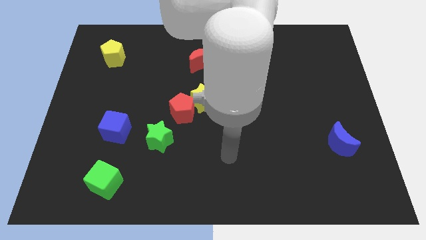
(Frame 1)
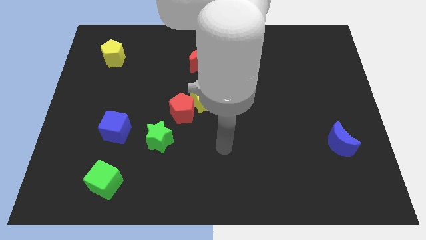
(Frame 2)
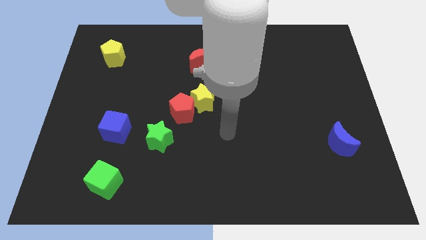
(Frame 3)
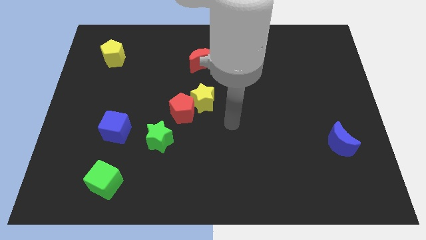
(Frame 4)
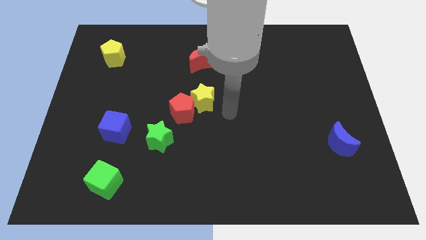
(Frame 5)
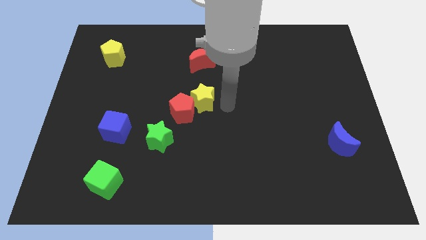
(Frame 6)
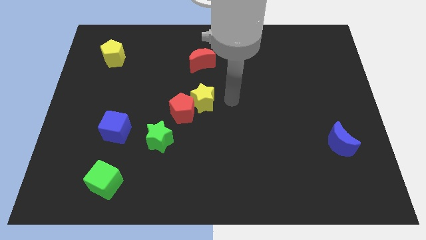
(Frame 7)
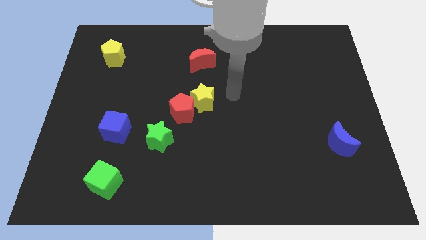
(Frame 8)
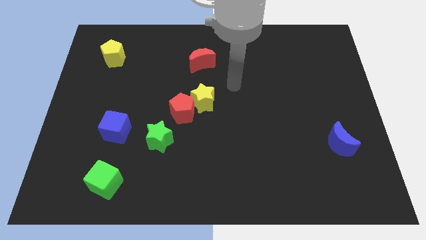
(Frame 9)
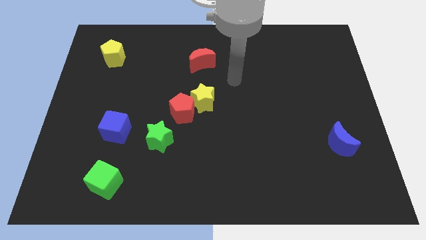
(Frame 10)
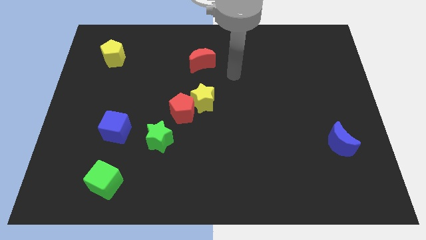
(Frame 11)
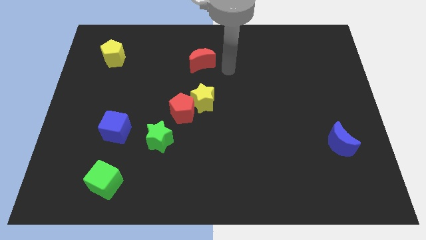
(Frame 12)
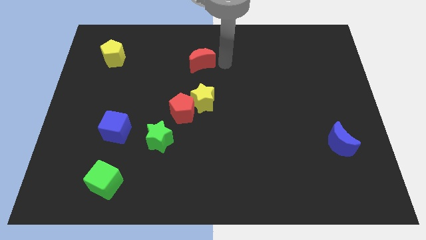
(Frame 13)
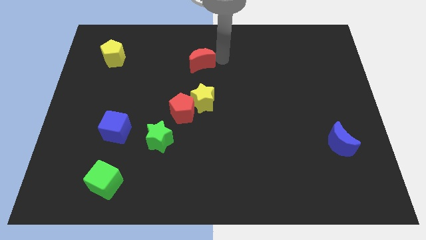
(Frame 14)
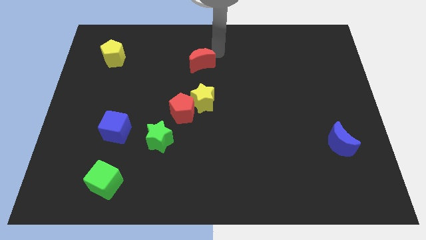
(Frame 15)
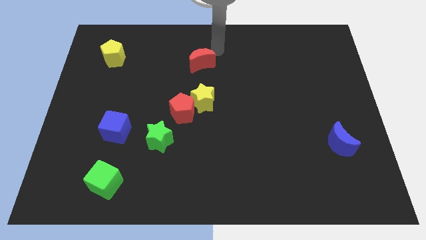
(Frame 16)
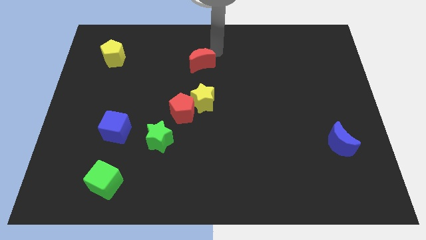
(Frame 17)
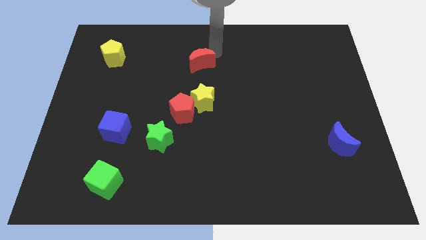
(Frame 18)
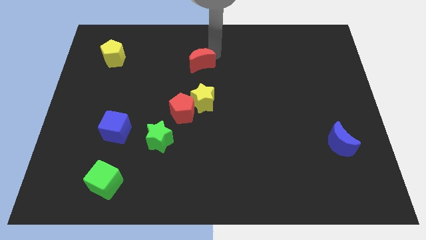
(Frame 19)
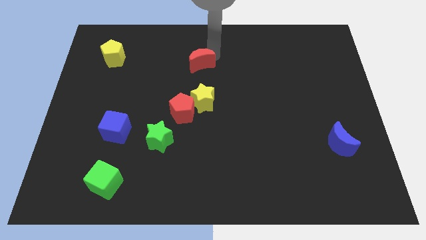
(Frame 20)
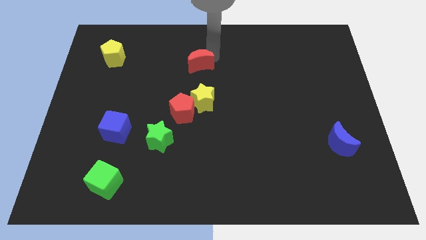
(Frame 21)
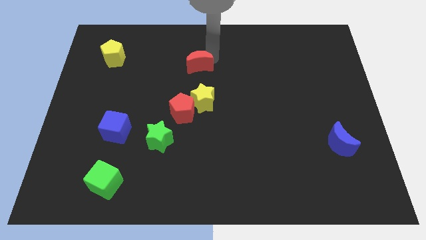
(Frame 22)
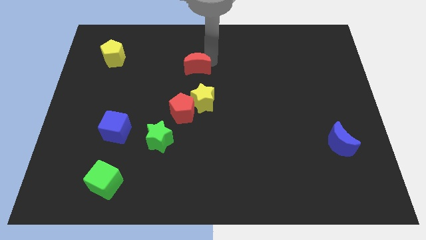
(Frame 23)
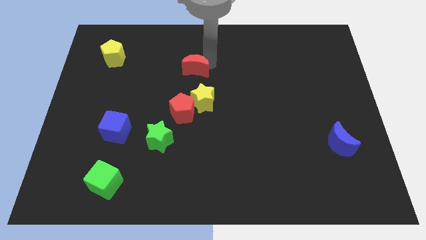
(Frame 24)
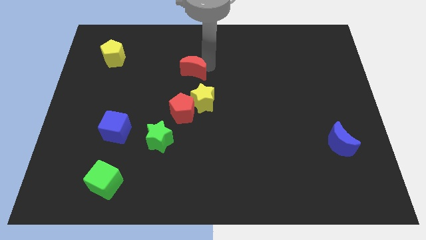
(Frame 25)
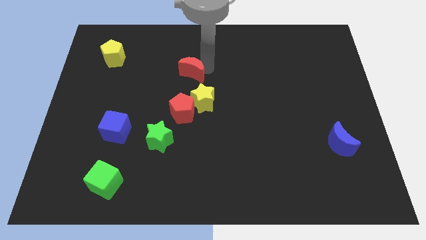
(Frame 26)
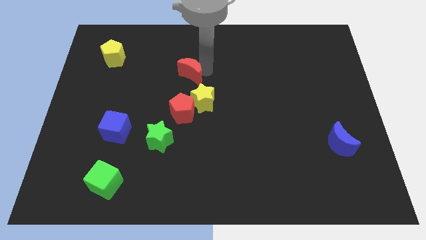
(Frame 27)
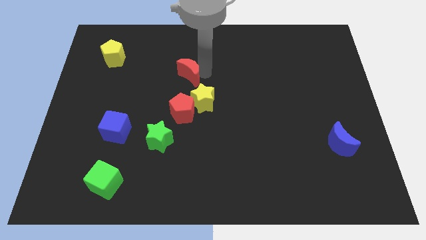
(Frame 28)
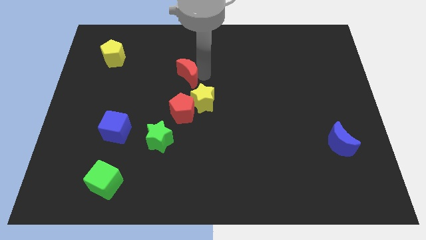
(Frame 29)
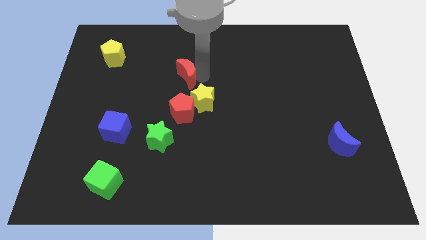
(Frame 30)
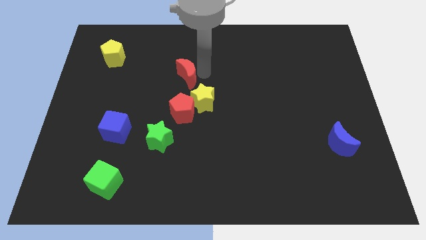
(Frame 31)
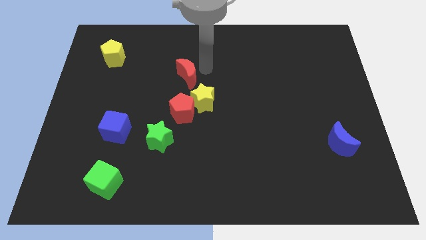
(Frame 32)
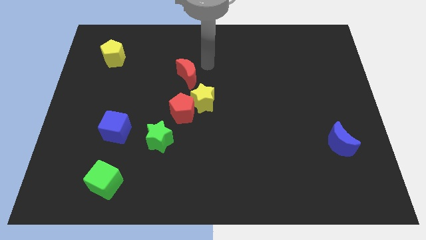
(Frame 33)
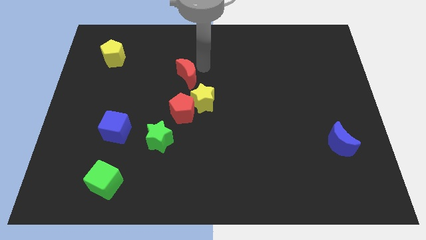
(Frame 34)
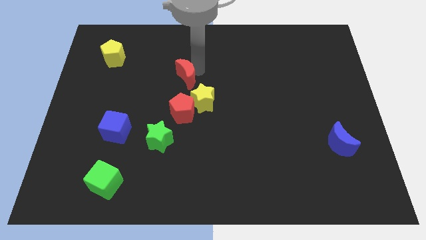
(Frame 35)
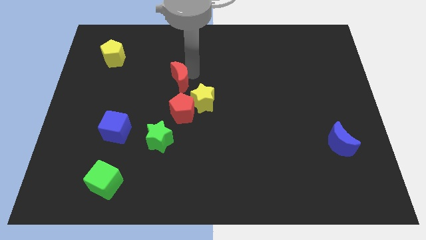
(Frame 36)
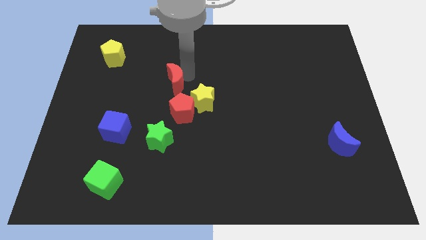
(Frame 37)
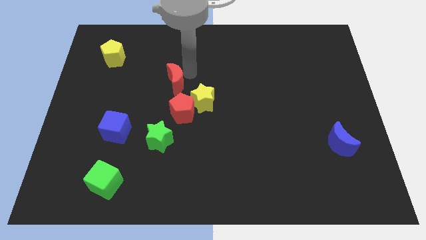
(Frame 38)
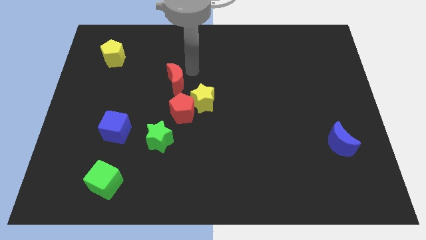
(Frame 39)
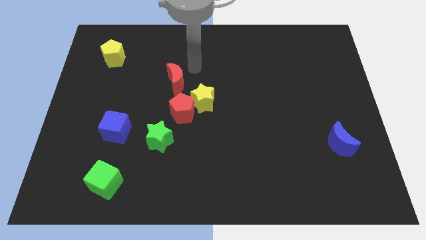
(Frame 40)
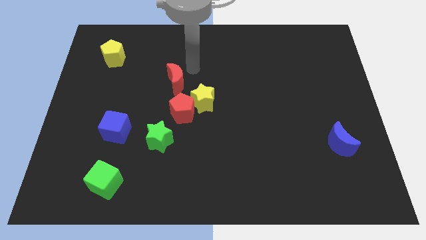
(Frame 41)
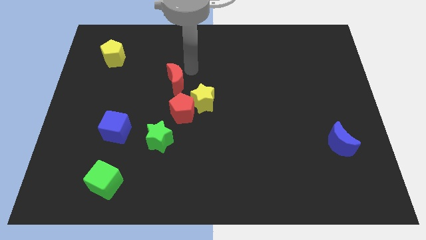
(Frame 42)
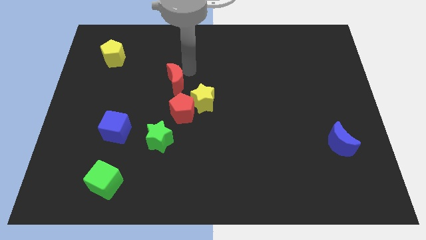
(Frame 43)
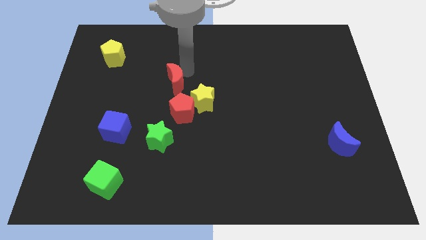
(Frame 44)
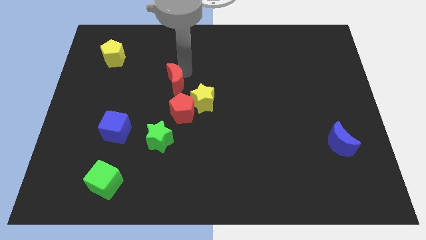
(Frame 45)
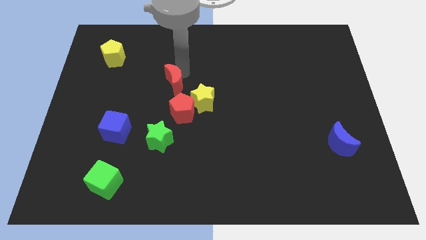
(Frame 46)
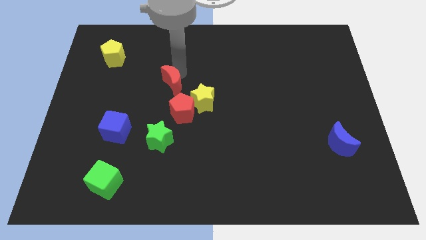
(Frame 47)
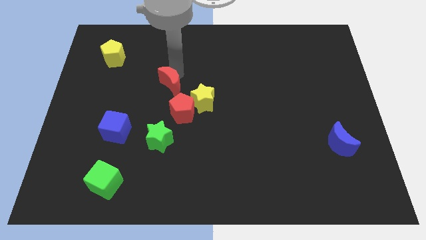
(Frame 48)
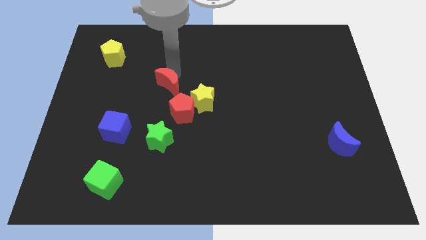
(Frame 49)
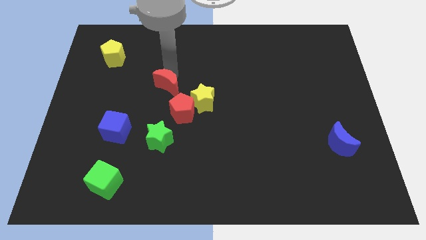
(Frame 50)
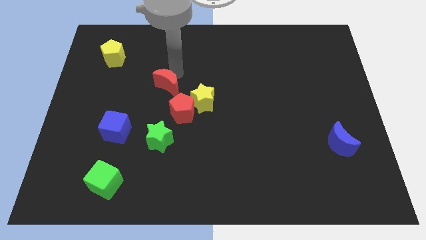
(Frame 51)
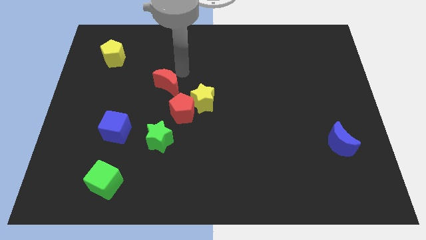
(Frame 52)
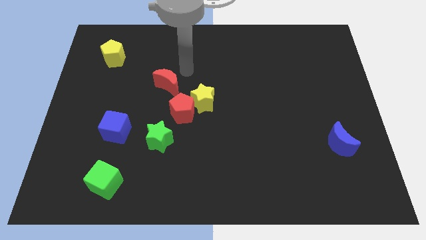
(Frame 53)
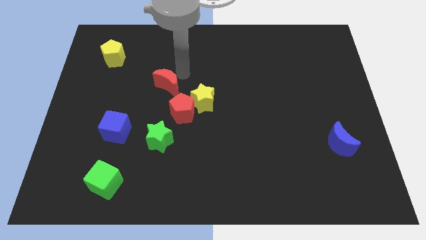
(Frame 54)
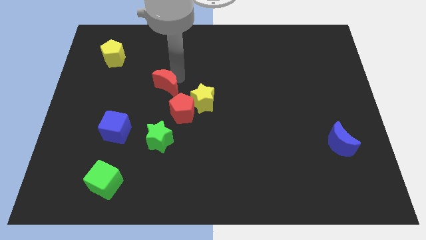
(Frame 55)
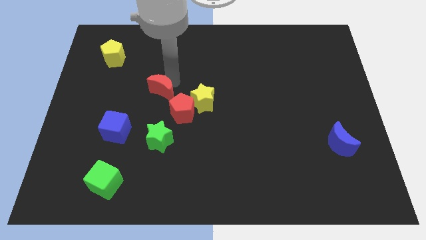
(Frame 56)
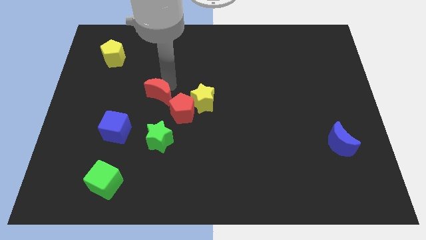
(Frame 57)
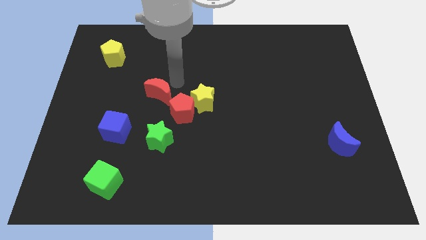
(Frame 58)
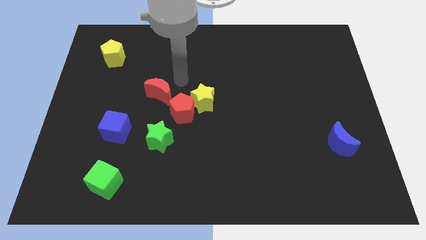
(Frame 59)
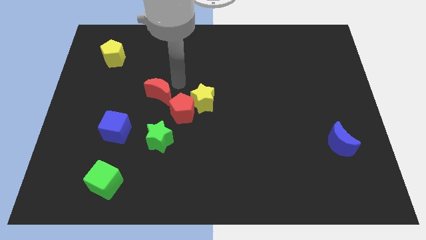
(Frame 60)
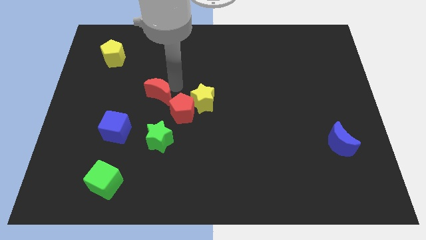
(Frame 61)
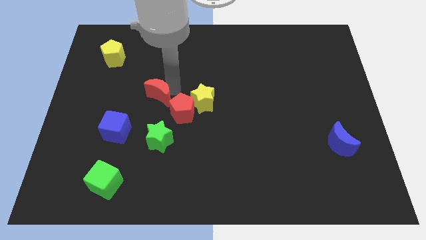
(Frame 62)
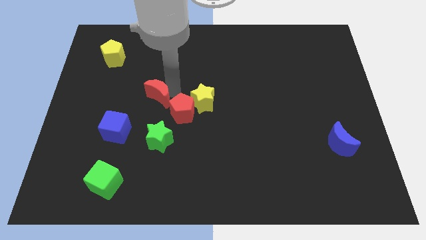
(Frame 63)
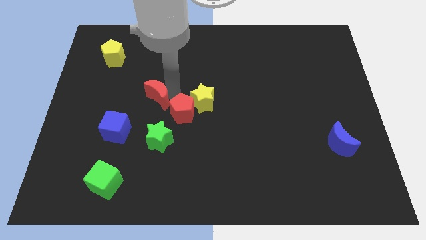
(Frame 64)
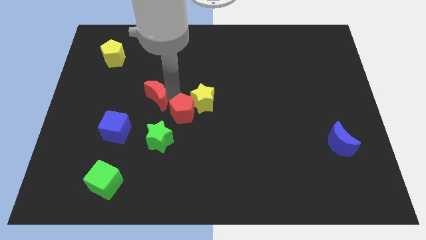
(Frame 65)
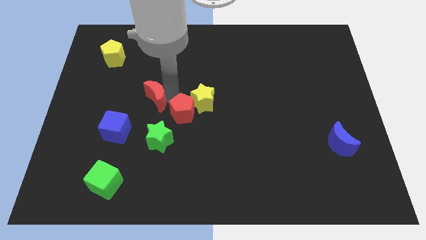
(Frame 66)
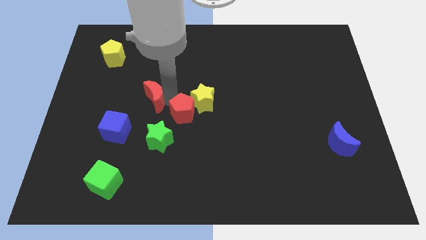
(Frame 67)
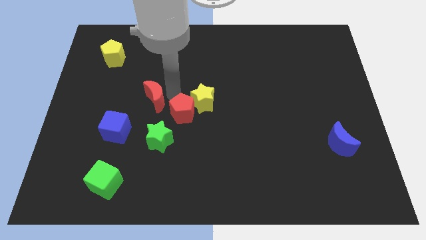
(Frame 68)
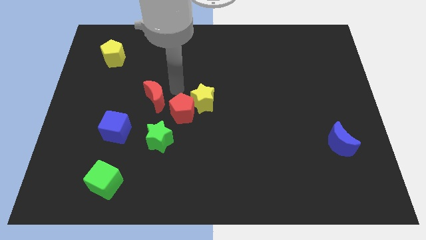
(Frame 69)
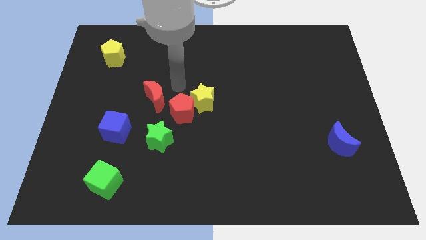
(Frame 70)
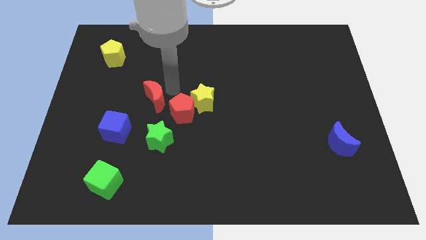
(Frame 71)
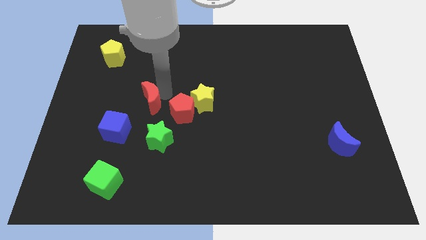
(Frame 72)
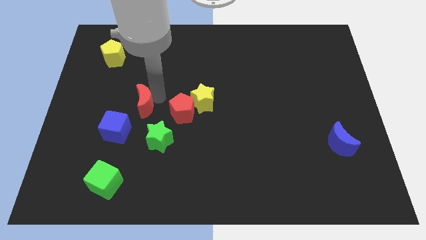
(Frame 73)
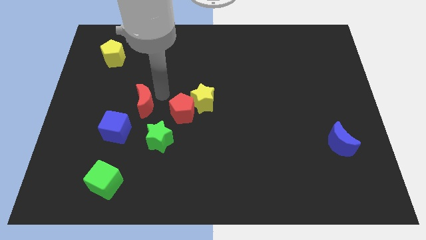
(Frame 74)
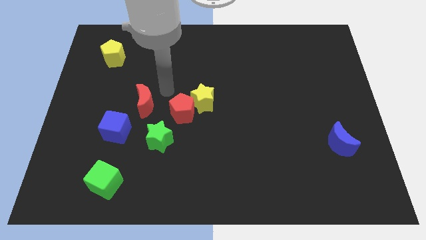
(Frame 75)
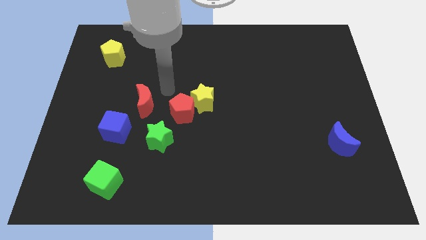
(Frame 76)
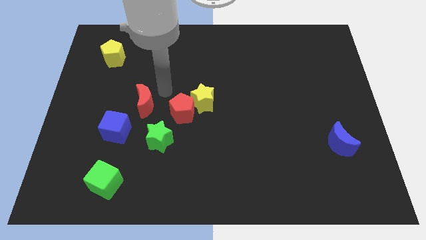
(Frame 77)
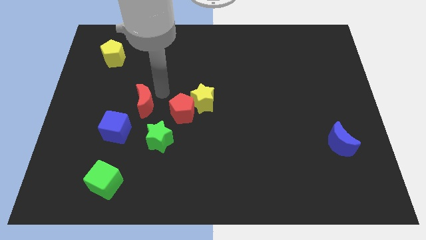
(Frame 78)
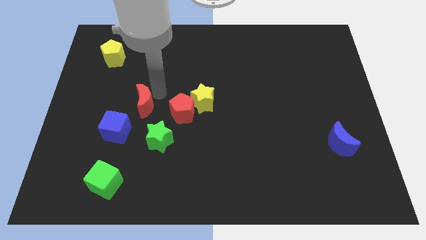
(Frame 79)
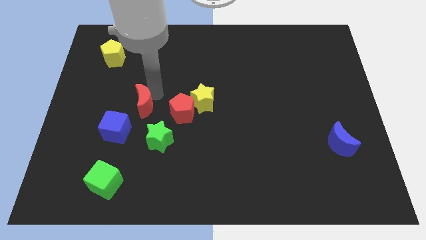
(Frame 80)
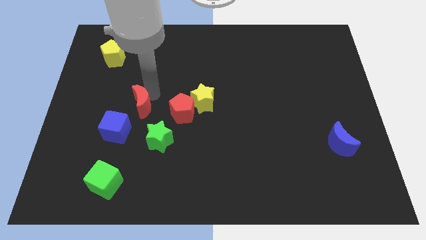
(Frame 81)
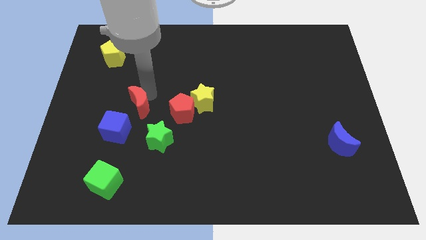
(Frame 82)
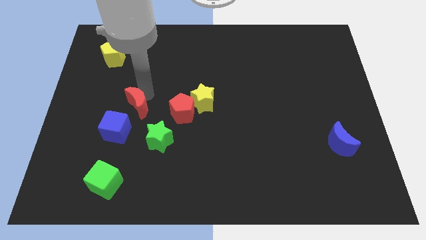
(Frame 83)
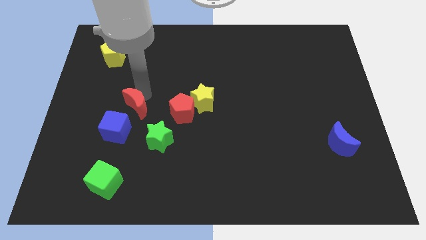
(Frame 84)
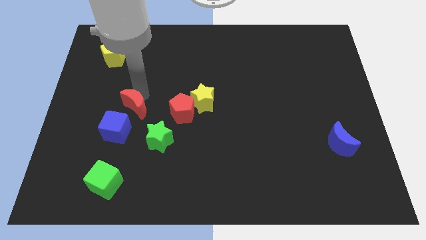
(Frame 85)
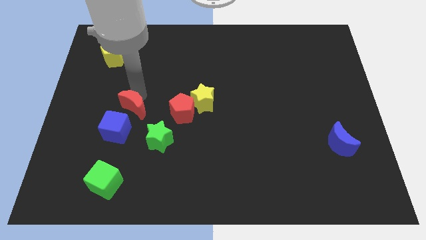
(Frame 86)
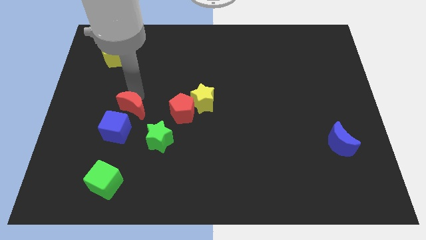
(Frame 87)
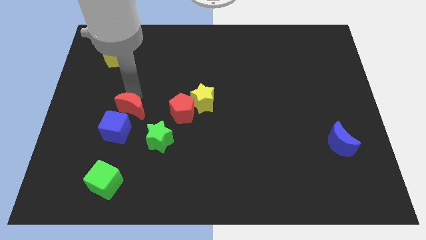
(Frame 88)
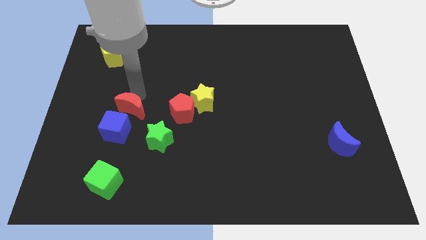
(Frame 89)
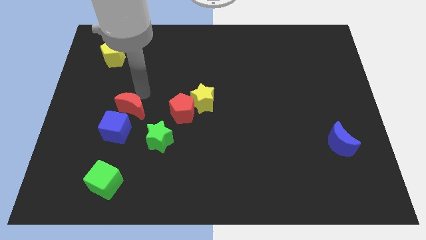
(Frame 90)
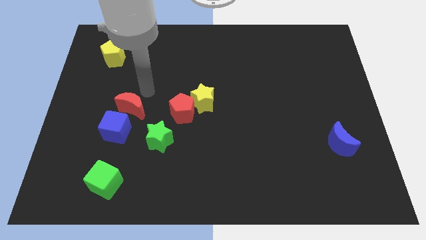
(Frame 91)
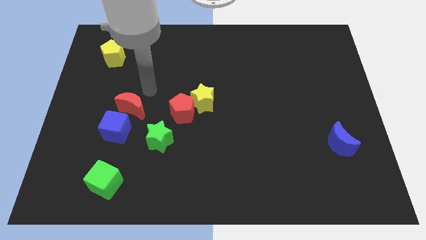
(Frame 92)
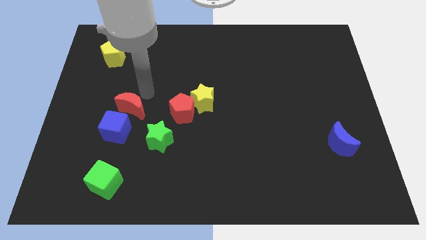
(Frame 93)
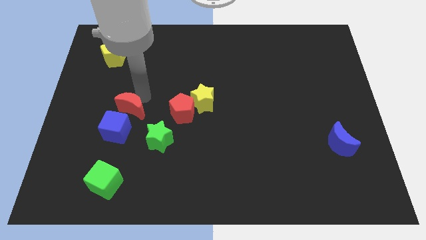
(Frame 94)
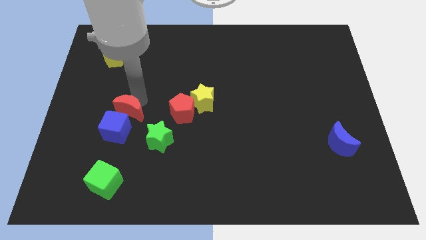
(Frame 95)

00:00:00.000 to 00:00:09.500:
put the red moon towards the blue cube
